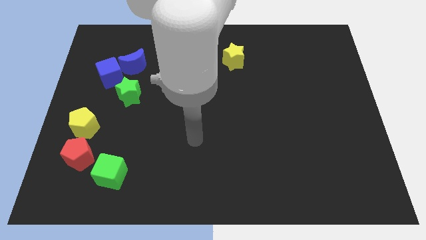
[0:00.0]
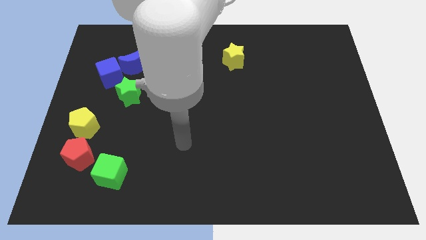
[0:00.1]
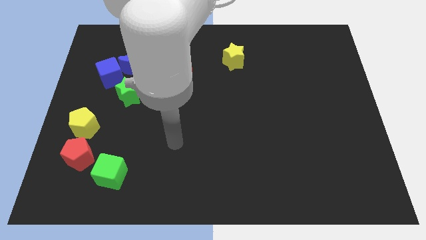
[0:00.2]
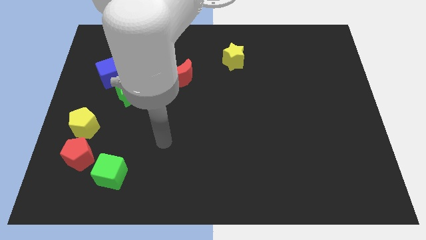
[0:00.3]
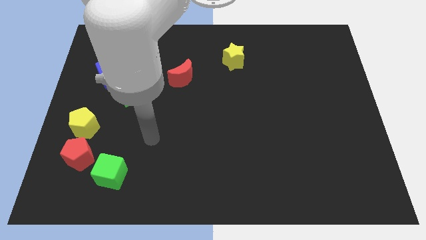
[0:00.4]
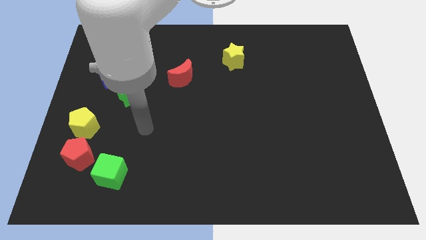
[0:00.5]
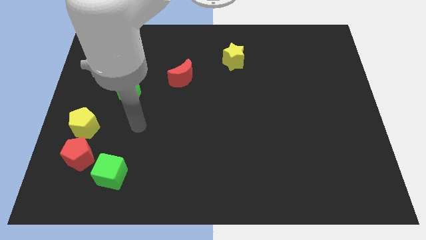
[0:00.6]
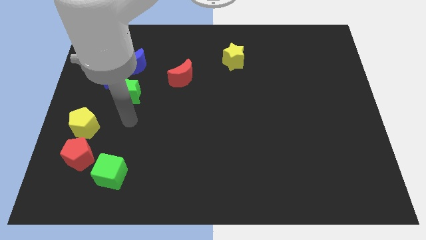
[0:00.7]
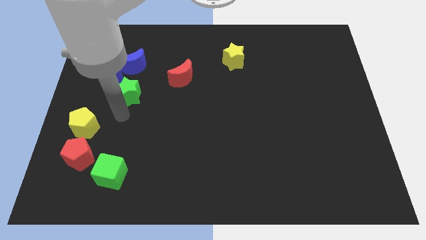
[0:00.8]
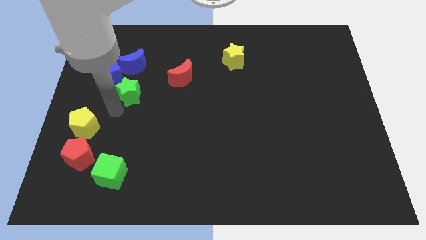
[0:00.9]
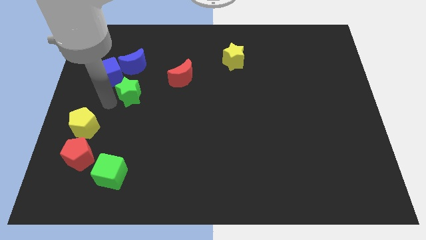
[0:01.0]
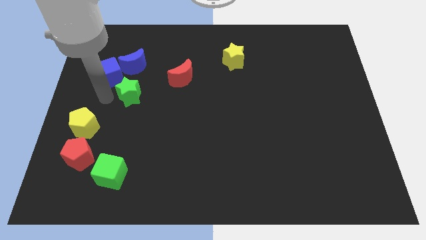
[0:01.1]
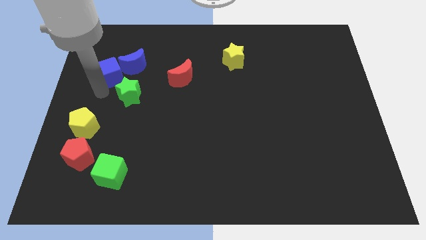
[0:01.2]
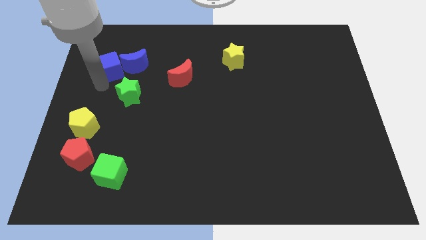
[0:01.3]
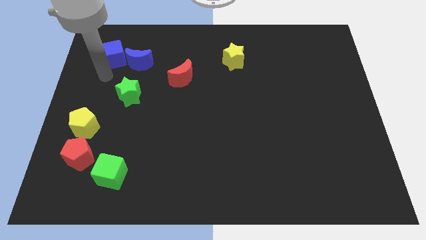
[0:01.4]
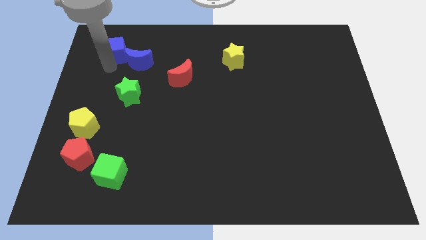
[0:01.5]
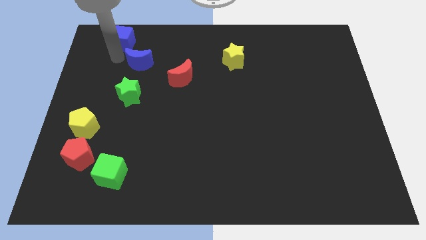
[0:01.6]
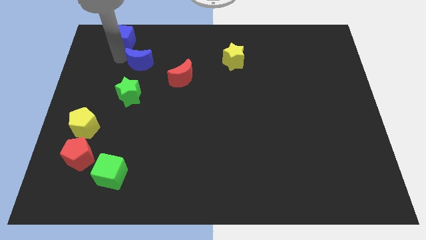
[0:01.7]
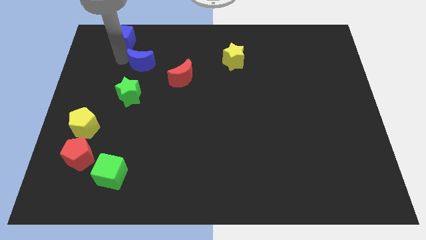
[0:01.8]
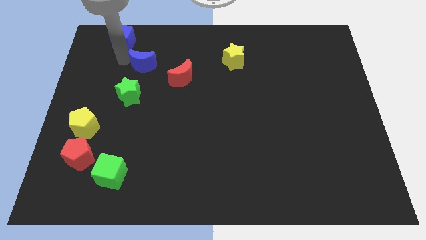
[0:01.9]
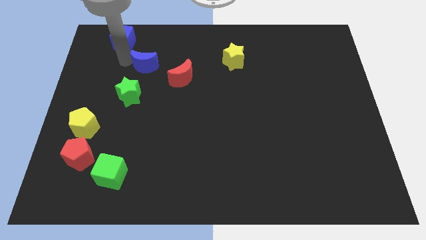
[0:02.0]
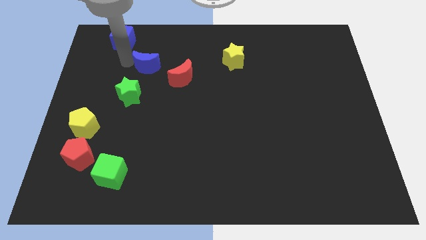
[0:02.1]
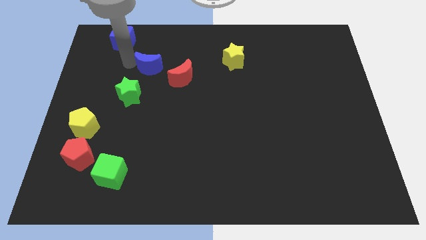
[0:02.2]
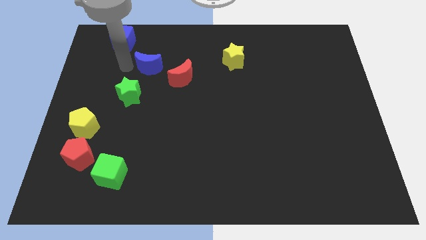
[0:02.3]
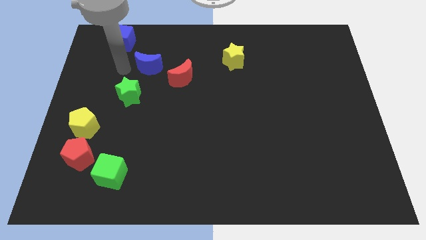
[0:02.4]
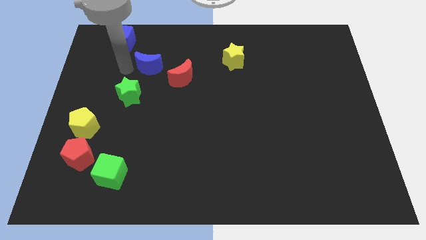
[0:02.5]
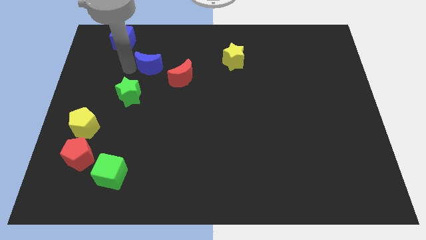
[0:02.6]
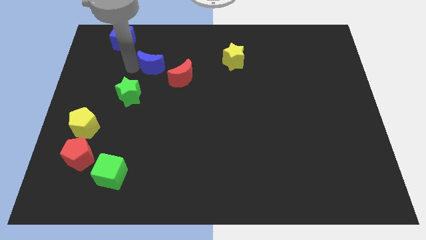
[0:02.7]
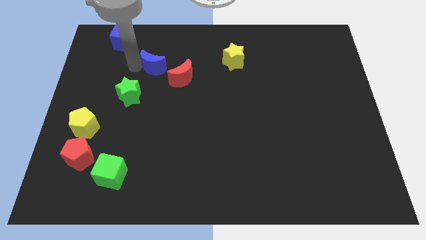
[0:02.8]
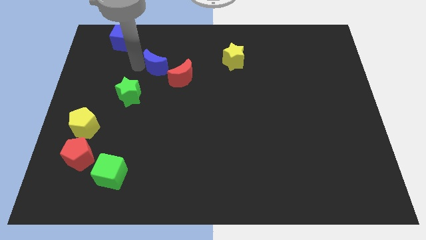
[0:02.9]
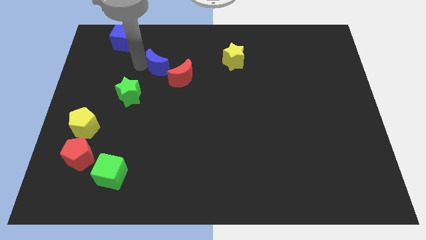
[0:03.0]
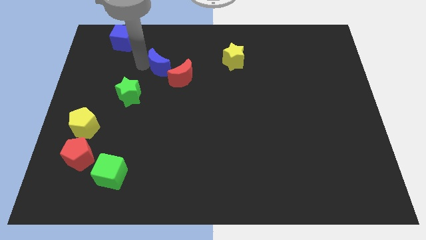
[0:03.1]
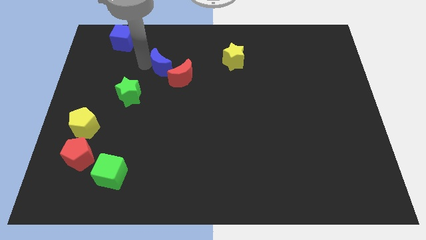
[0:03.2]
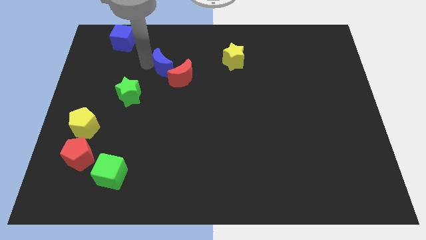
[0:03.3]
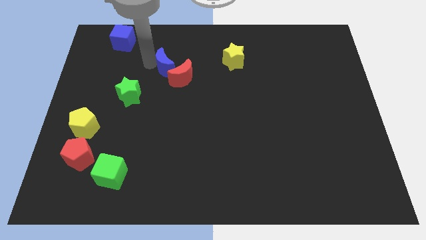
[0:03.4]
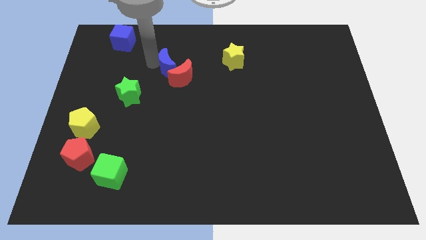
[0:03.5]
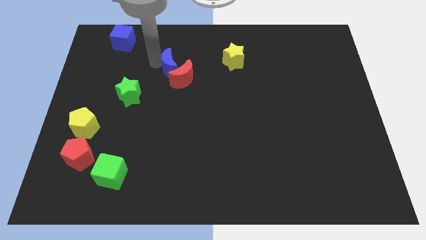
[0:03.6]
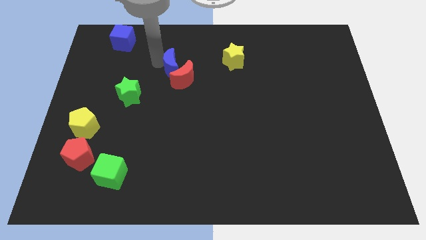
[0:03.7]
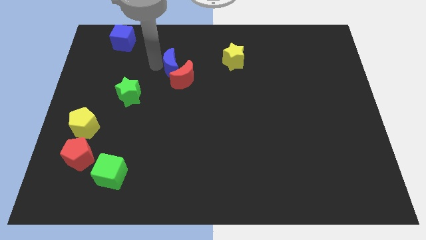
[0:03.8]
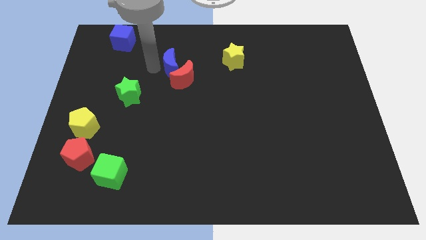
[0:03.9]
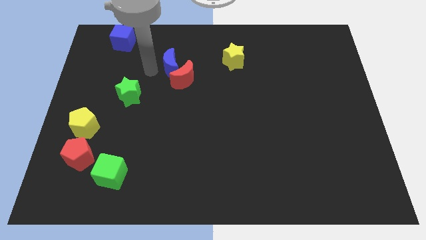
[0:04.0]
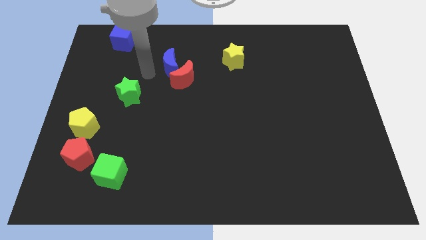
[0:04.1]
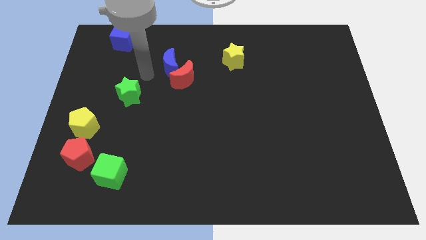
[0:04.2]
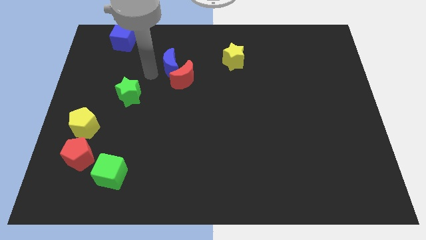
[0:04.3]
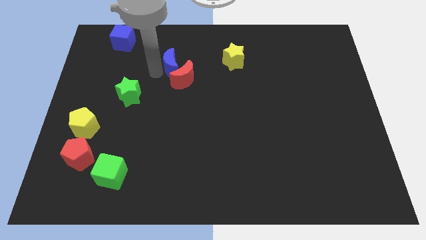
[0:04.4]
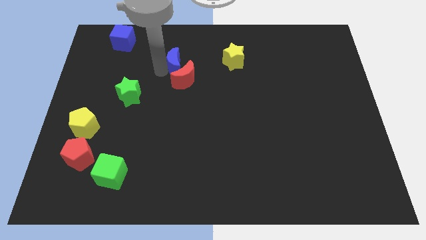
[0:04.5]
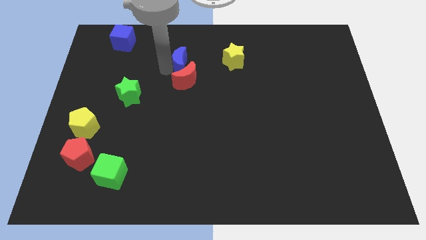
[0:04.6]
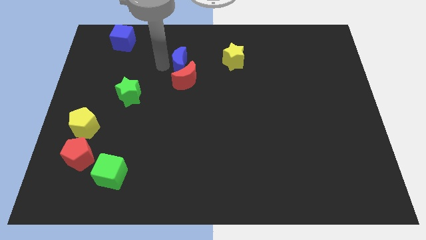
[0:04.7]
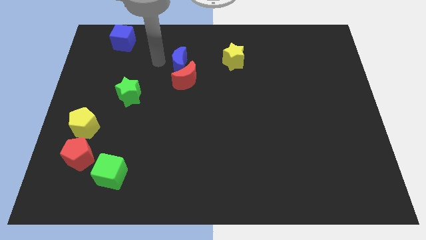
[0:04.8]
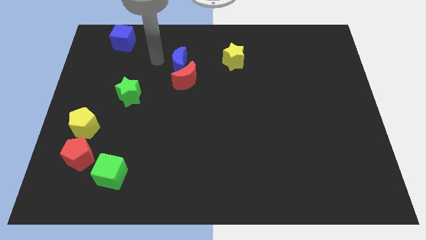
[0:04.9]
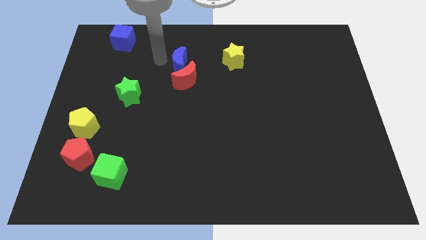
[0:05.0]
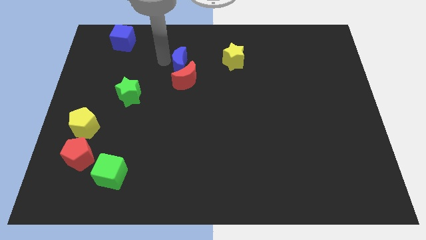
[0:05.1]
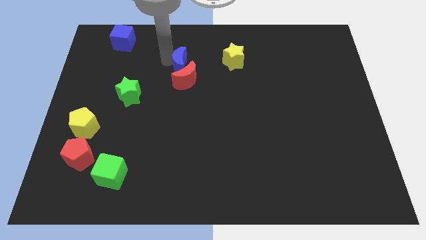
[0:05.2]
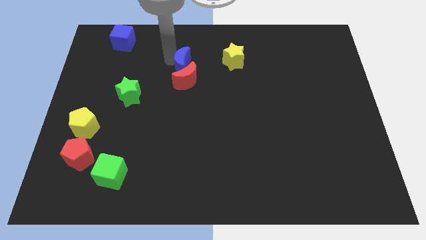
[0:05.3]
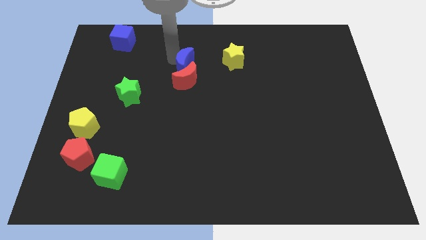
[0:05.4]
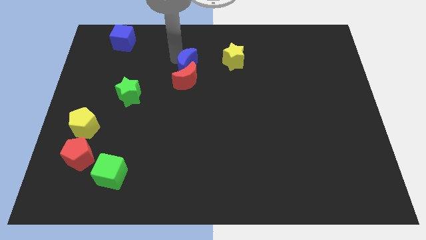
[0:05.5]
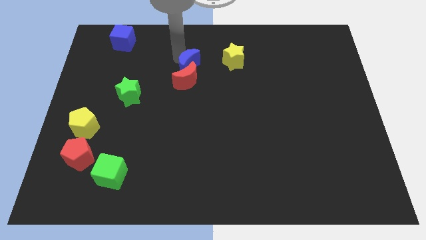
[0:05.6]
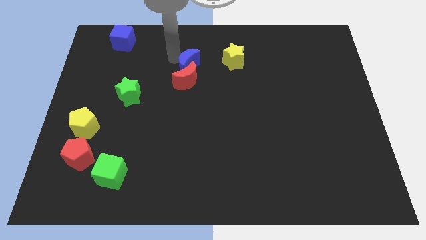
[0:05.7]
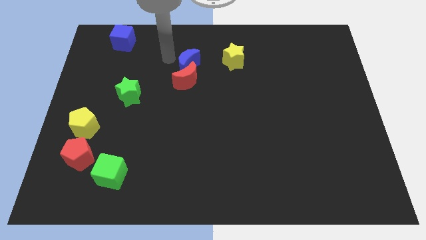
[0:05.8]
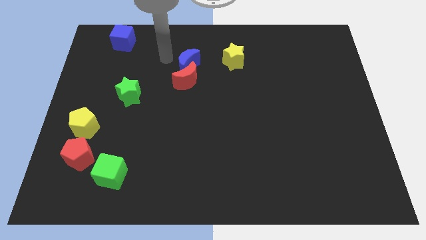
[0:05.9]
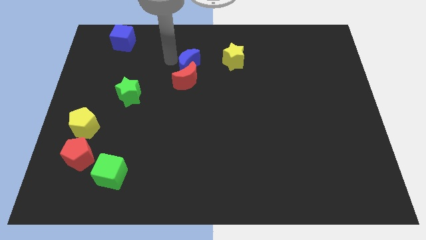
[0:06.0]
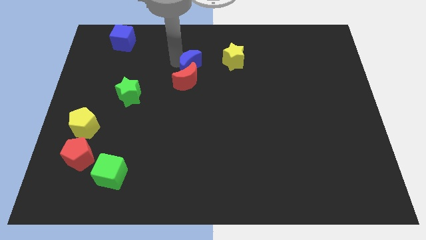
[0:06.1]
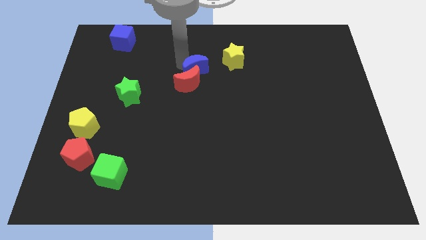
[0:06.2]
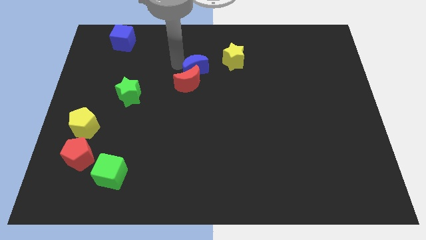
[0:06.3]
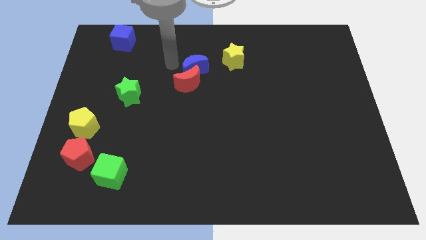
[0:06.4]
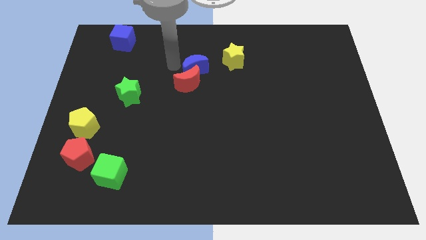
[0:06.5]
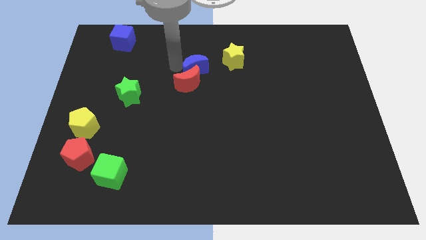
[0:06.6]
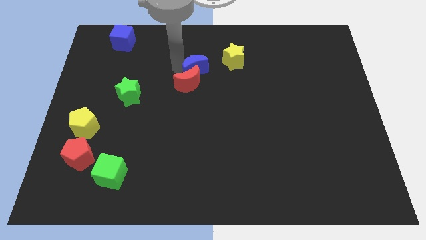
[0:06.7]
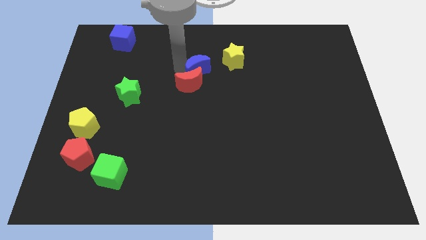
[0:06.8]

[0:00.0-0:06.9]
move the blue moon to the bottom left side of the yellow star
